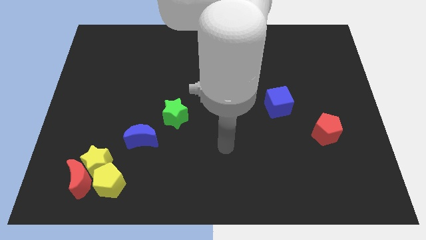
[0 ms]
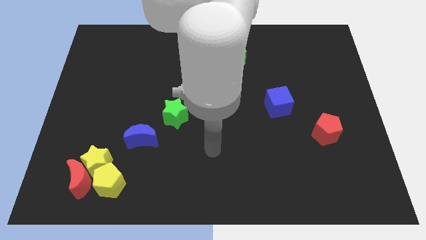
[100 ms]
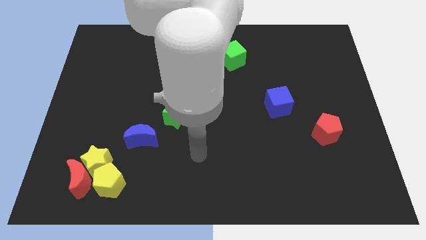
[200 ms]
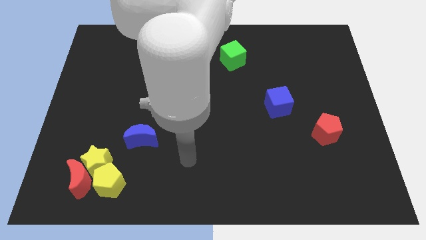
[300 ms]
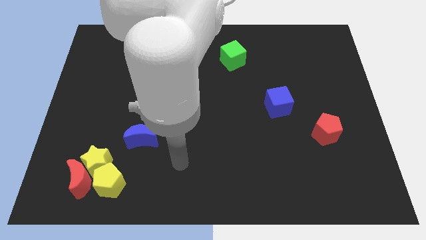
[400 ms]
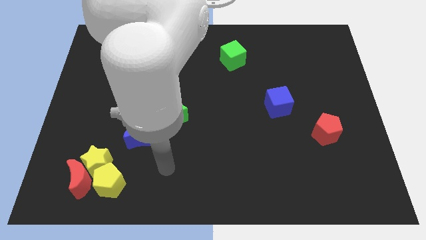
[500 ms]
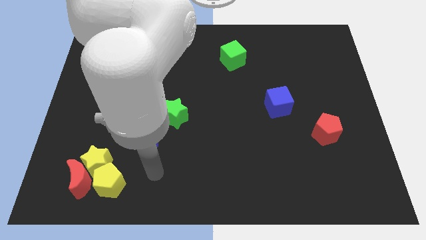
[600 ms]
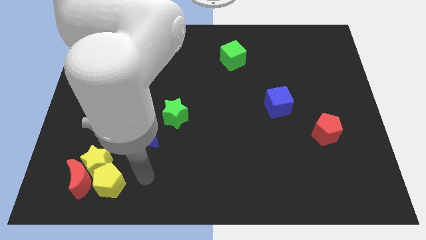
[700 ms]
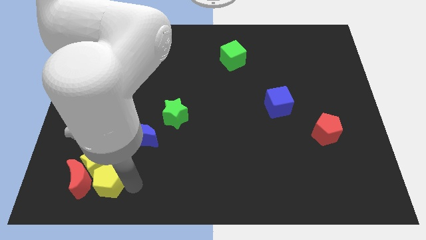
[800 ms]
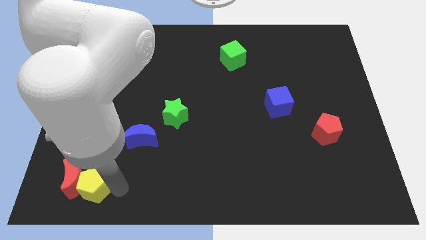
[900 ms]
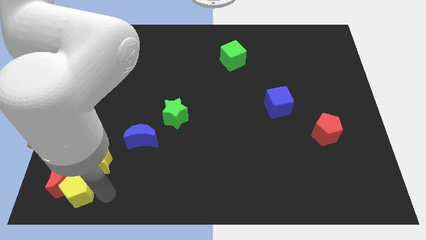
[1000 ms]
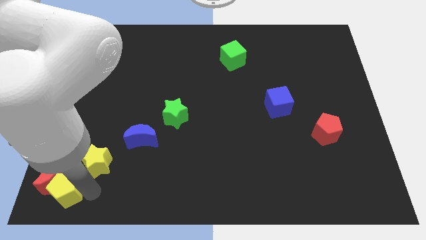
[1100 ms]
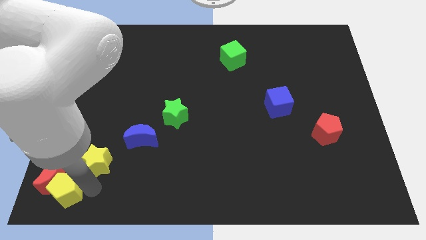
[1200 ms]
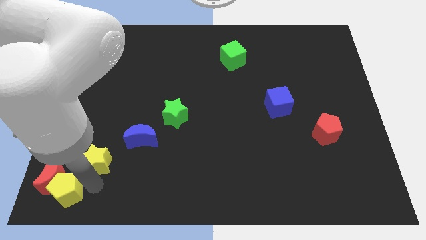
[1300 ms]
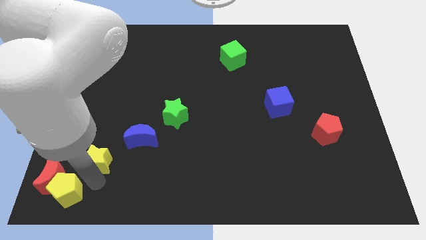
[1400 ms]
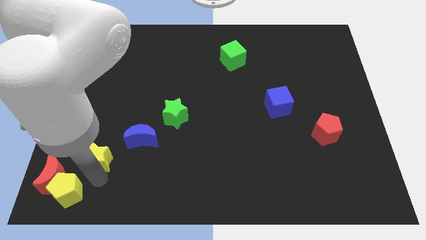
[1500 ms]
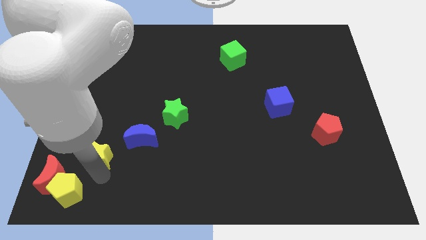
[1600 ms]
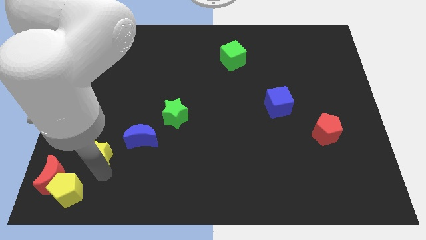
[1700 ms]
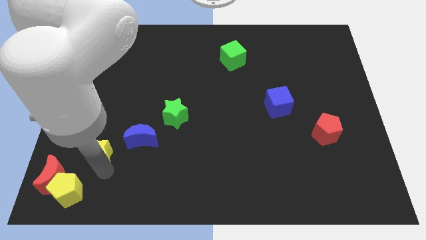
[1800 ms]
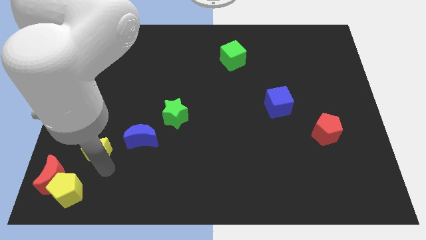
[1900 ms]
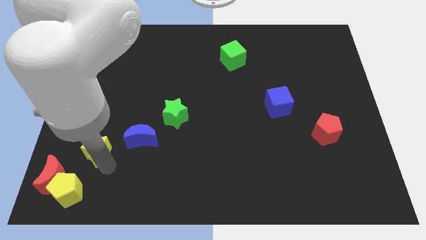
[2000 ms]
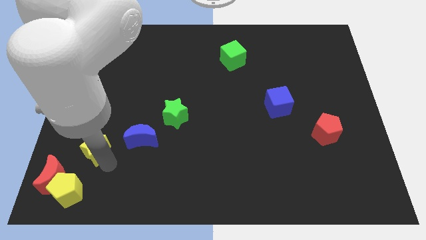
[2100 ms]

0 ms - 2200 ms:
move the yellow star away from the red moon and yellow pentagon

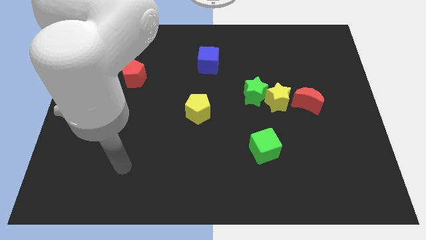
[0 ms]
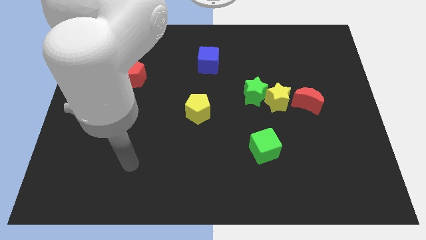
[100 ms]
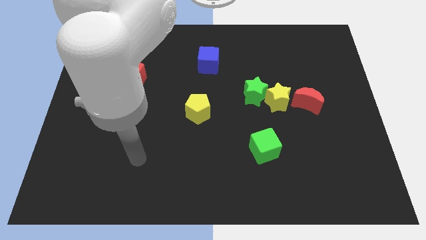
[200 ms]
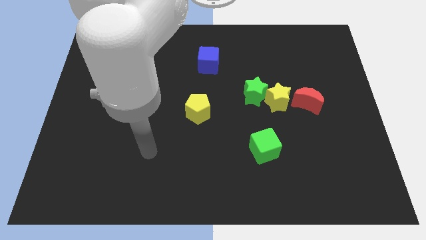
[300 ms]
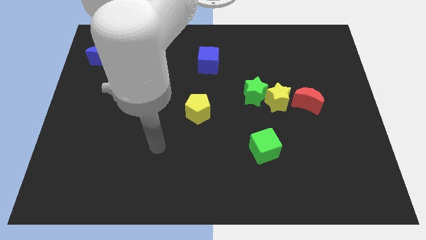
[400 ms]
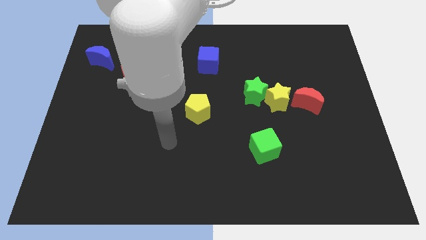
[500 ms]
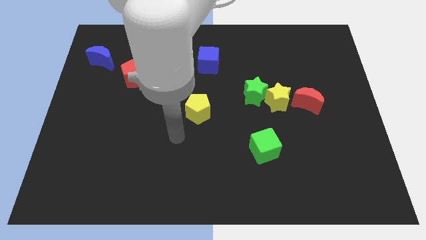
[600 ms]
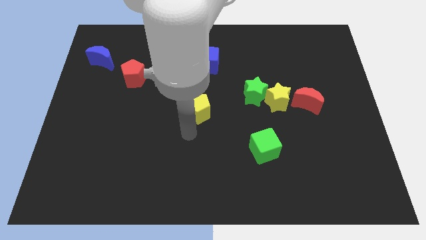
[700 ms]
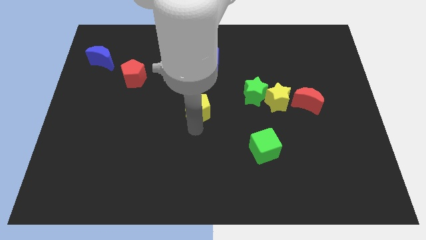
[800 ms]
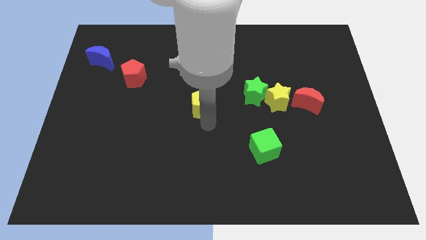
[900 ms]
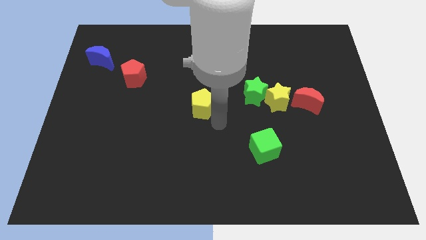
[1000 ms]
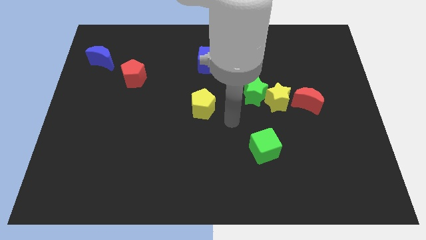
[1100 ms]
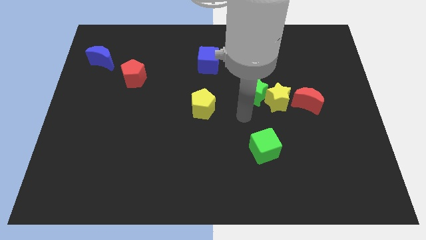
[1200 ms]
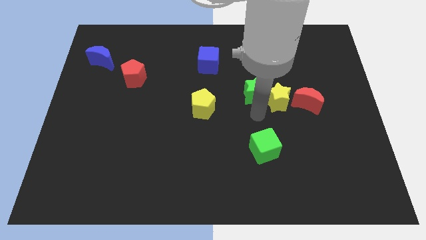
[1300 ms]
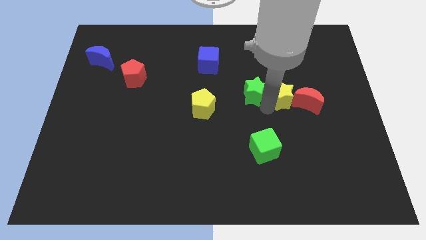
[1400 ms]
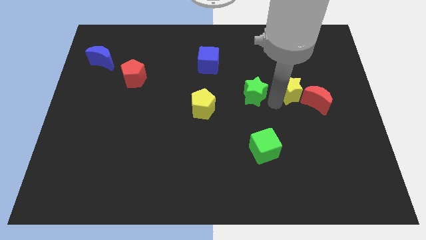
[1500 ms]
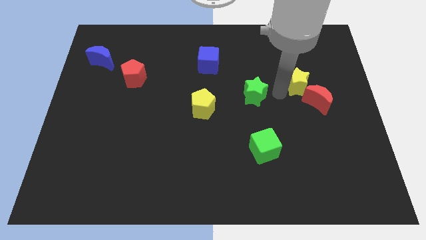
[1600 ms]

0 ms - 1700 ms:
pull the green star apart from the yellow star

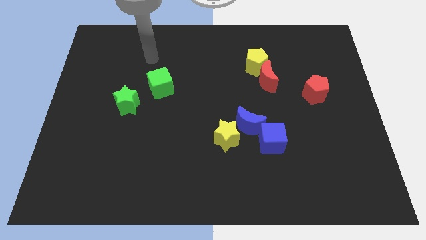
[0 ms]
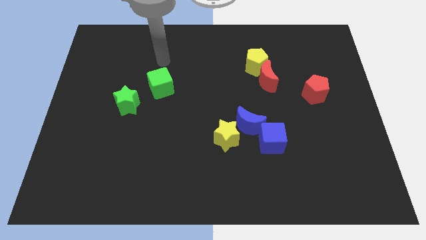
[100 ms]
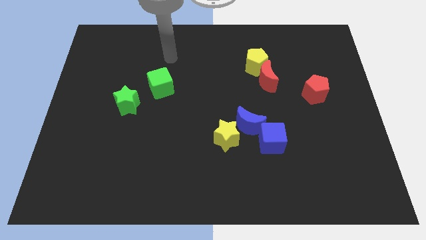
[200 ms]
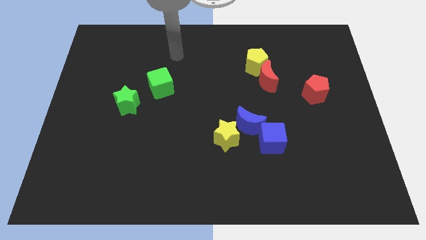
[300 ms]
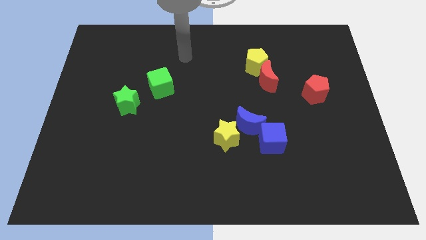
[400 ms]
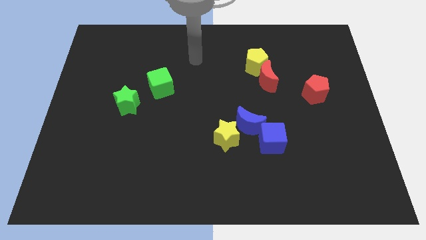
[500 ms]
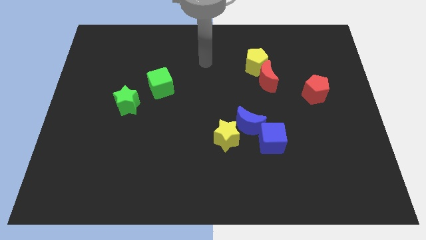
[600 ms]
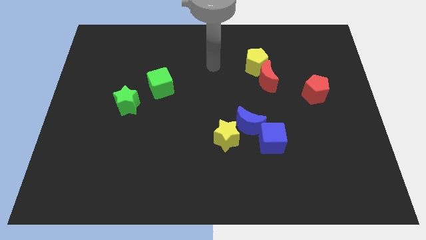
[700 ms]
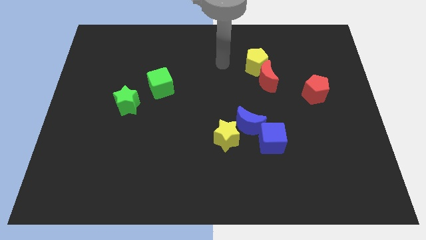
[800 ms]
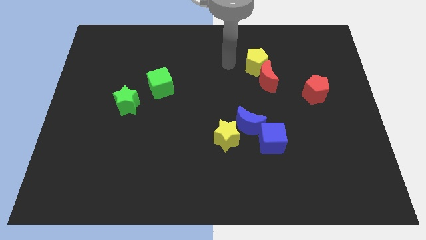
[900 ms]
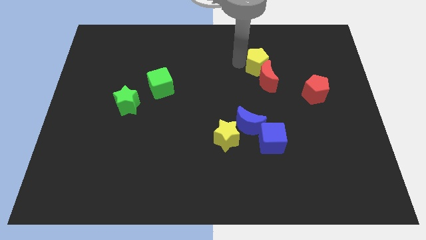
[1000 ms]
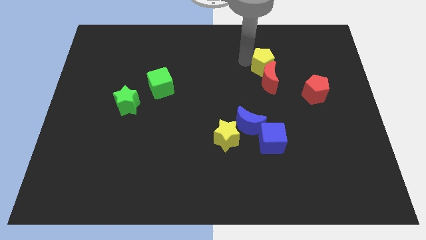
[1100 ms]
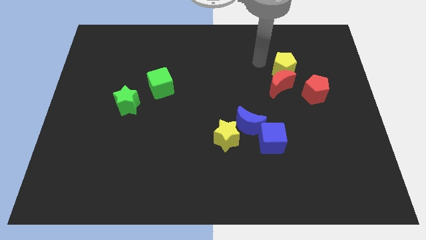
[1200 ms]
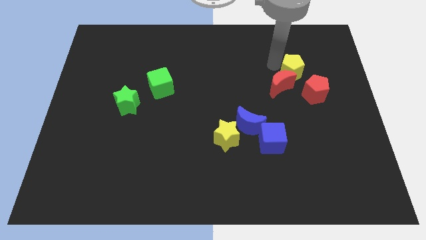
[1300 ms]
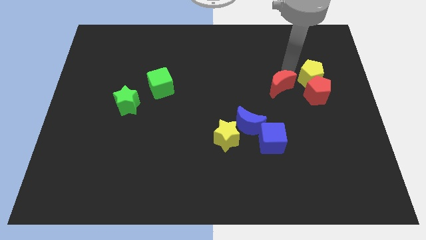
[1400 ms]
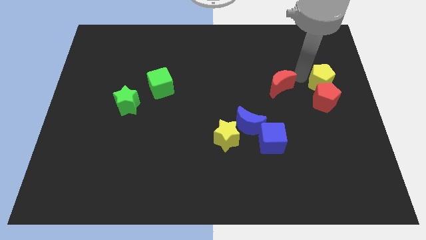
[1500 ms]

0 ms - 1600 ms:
pull the red moon apart from the yellow pentagon

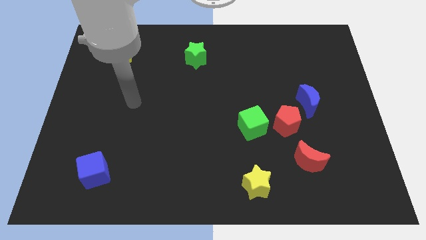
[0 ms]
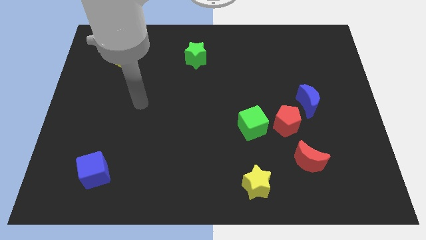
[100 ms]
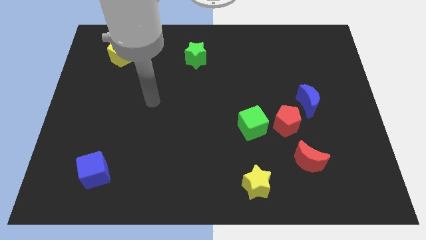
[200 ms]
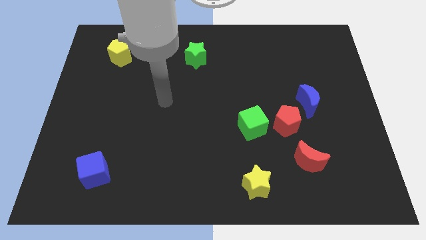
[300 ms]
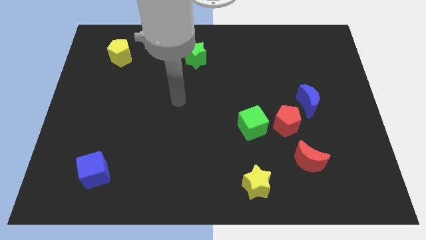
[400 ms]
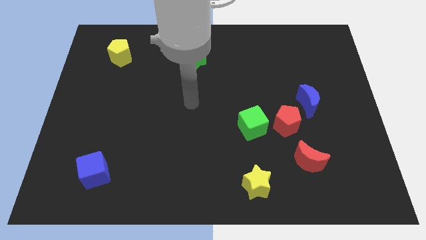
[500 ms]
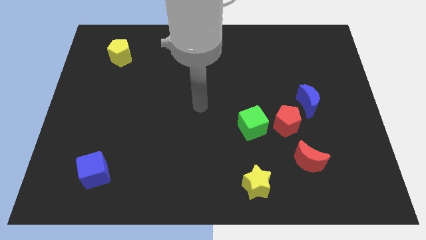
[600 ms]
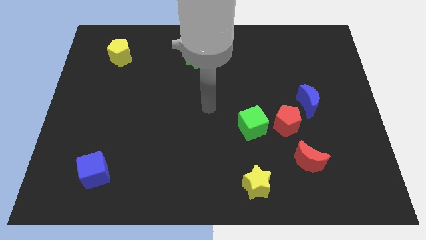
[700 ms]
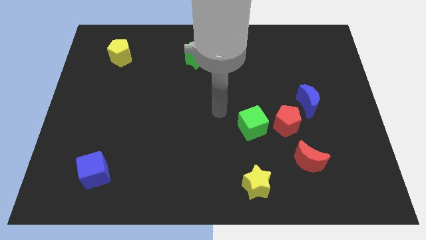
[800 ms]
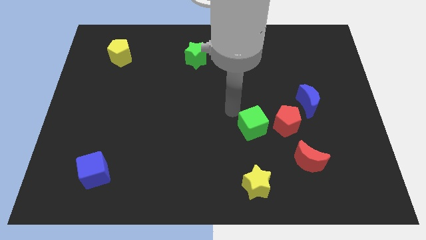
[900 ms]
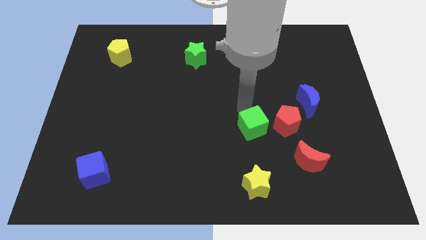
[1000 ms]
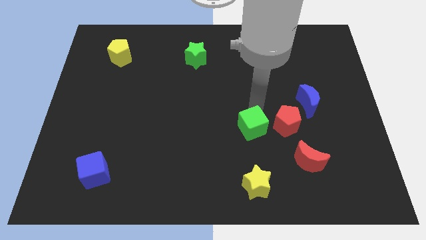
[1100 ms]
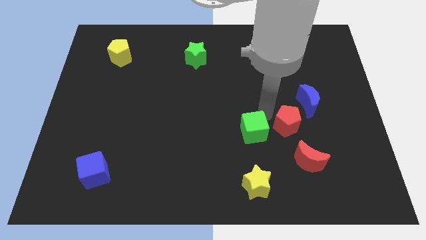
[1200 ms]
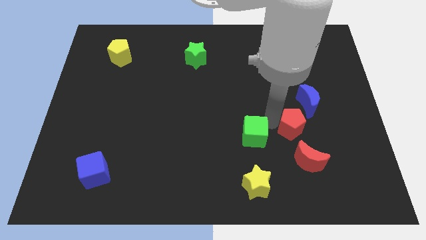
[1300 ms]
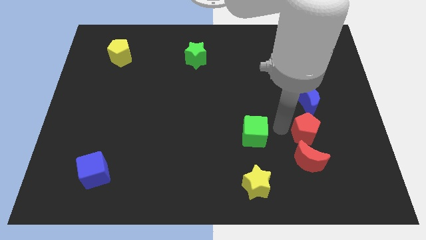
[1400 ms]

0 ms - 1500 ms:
separate the green cube from the red pentagon

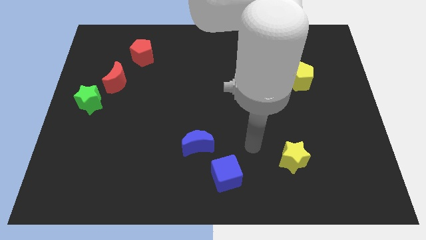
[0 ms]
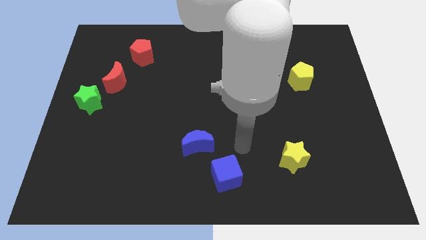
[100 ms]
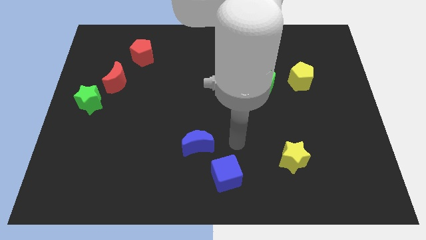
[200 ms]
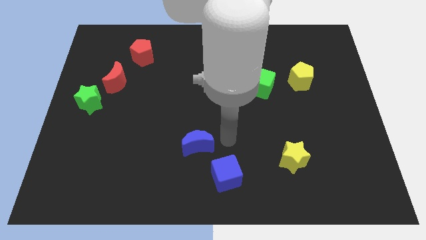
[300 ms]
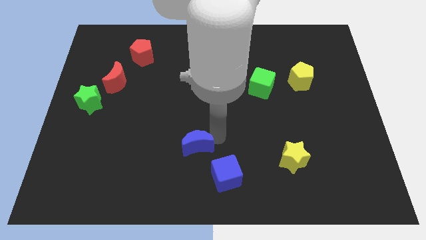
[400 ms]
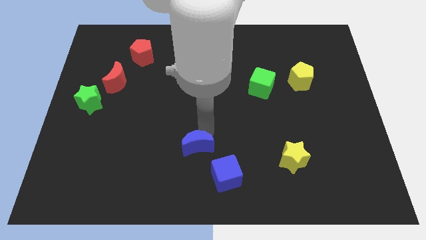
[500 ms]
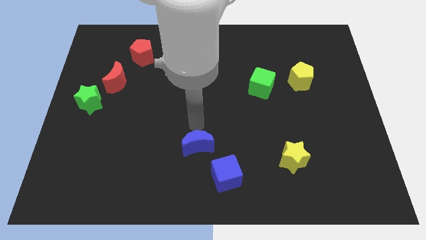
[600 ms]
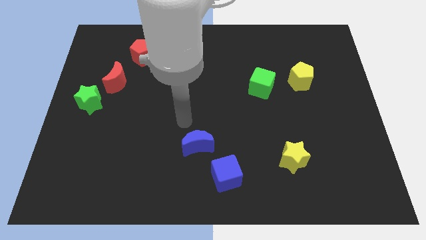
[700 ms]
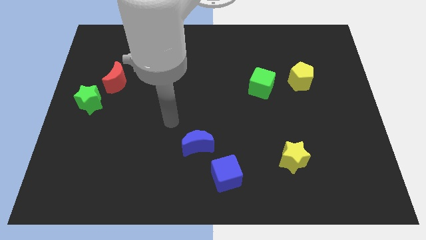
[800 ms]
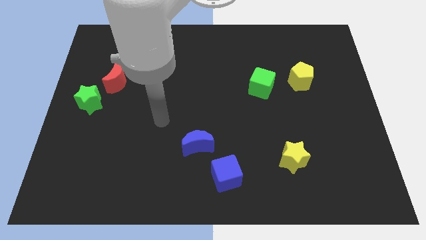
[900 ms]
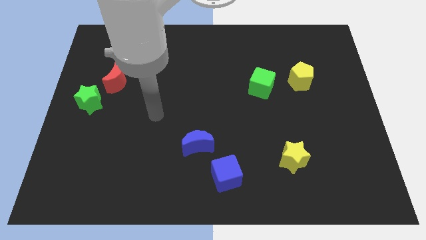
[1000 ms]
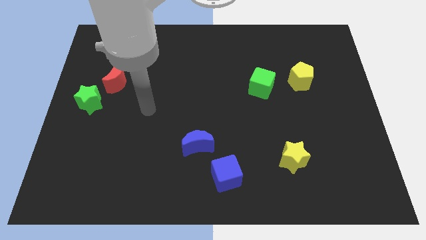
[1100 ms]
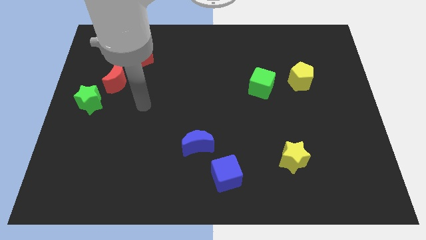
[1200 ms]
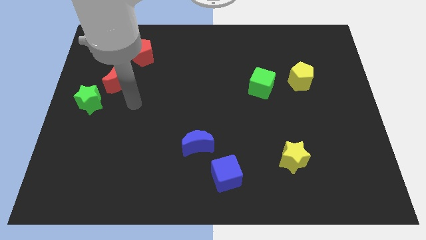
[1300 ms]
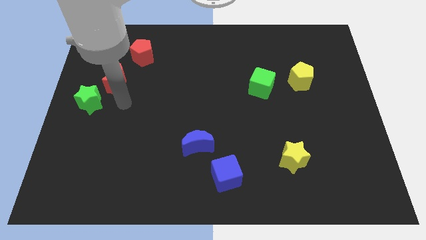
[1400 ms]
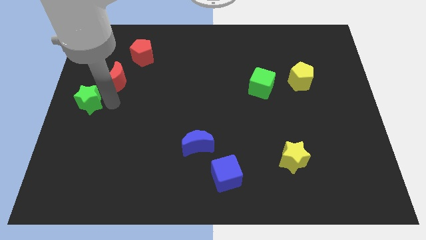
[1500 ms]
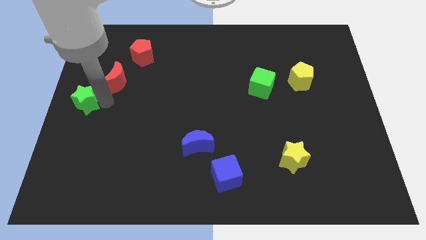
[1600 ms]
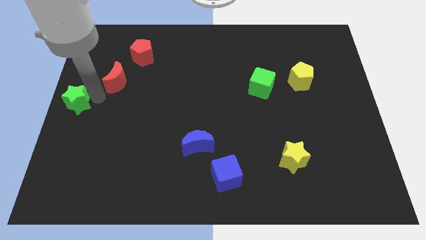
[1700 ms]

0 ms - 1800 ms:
move the red moon away from the green star

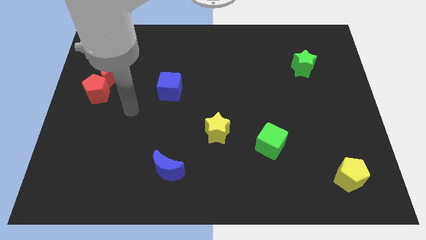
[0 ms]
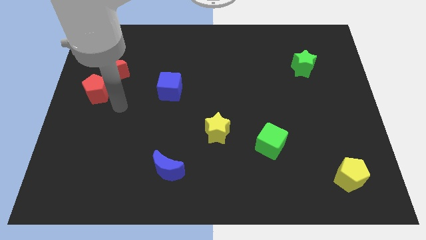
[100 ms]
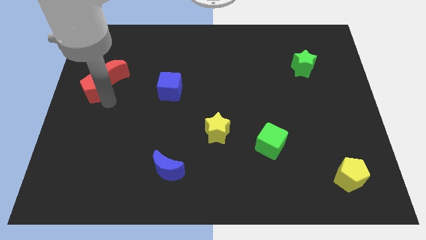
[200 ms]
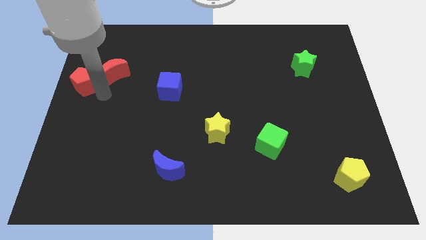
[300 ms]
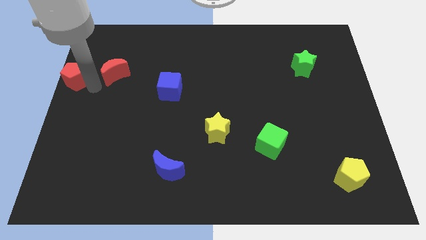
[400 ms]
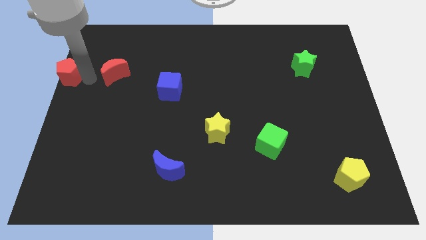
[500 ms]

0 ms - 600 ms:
pull the red moon apart from the red pentagon
